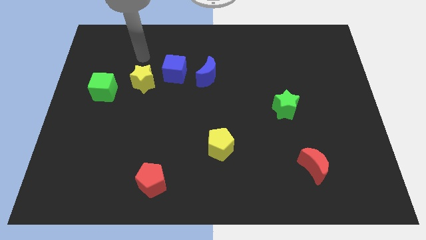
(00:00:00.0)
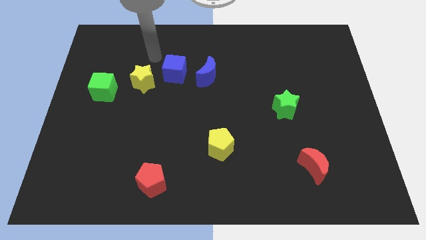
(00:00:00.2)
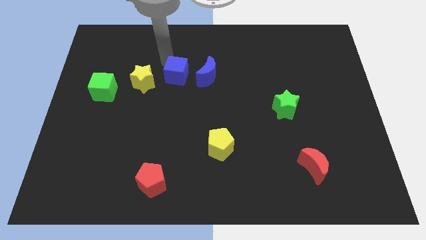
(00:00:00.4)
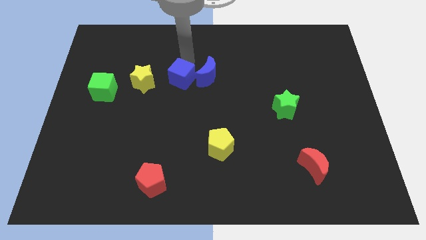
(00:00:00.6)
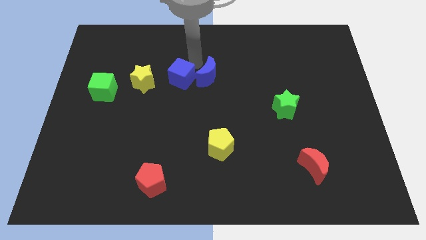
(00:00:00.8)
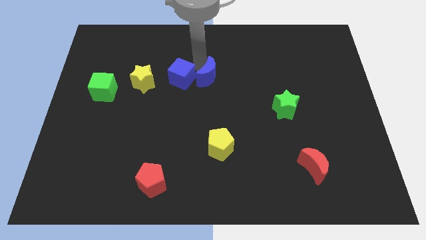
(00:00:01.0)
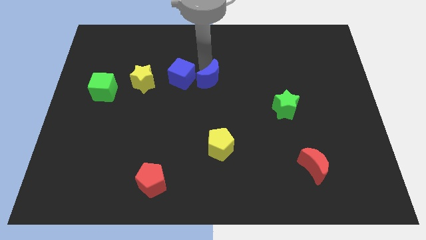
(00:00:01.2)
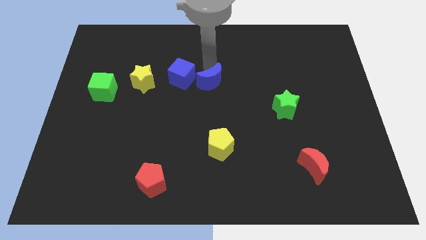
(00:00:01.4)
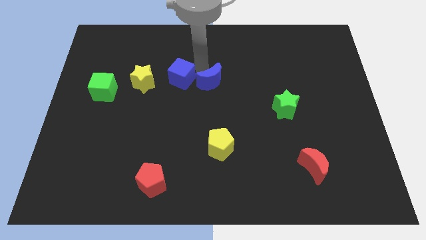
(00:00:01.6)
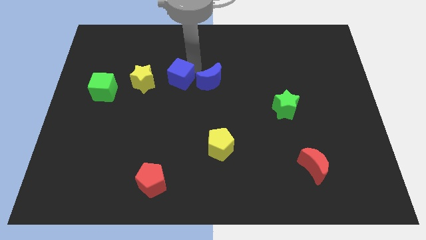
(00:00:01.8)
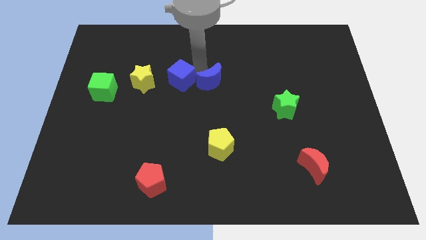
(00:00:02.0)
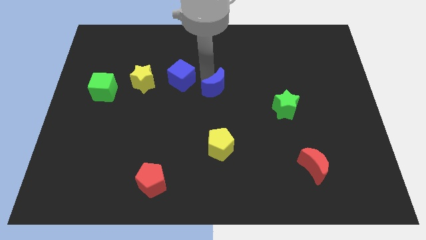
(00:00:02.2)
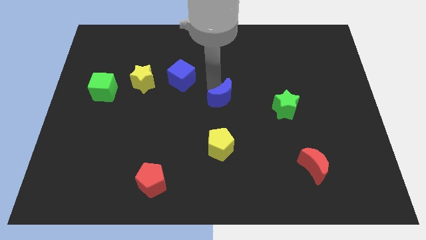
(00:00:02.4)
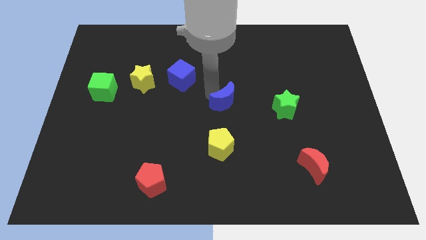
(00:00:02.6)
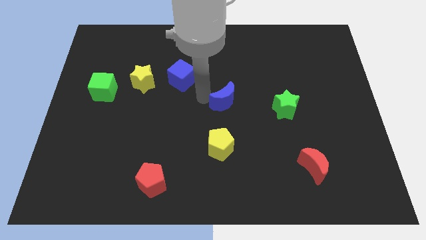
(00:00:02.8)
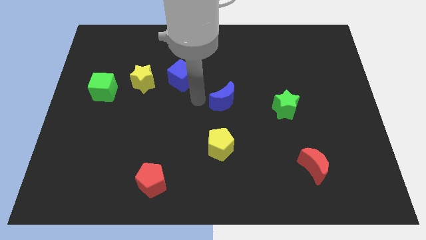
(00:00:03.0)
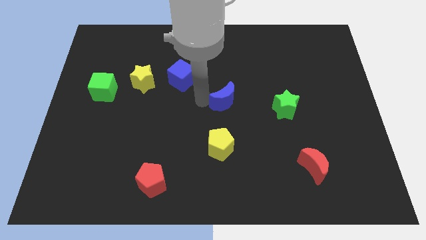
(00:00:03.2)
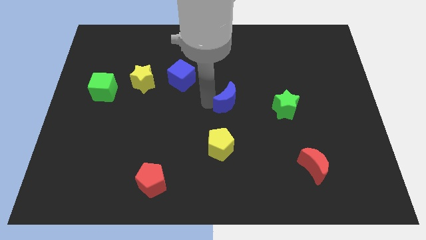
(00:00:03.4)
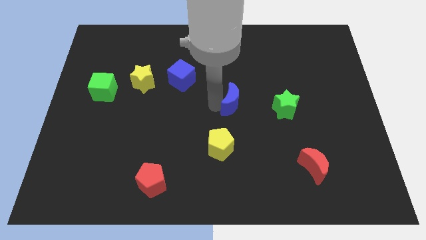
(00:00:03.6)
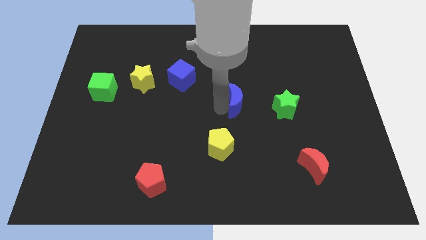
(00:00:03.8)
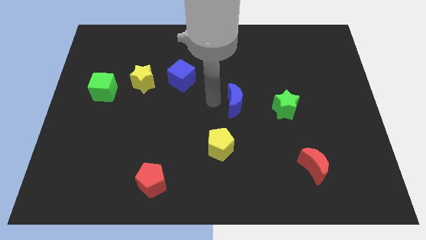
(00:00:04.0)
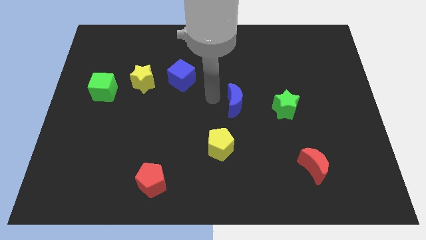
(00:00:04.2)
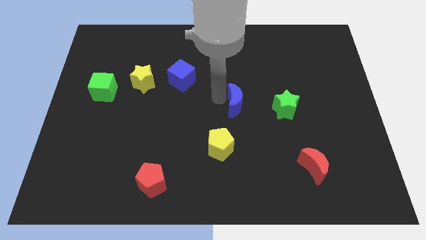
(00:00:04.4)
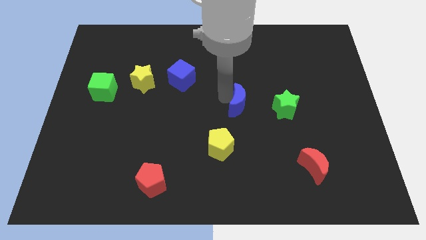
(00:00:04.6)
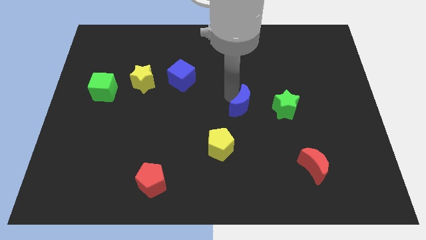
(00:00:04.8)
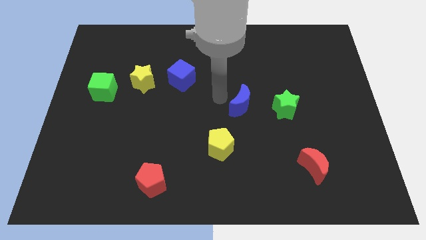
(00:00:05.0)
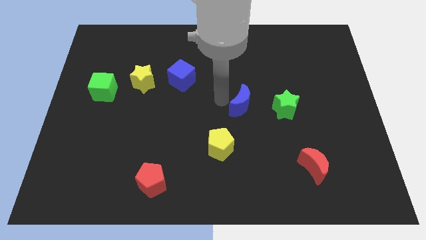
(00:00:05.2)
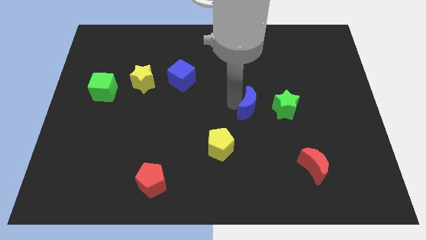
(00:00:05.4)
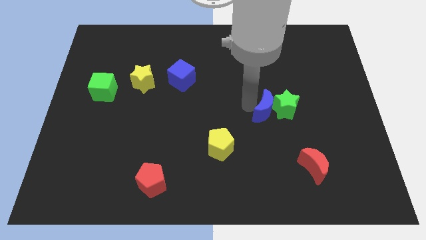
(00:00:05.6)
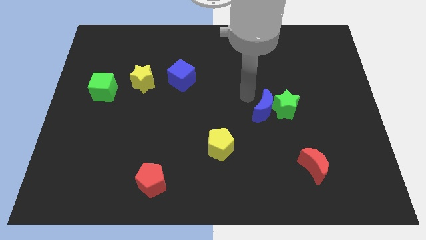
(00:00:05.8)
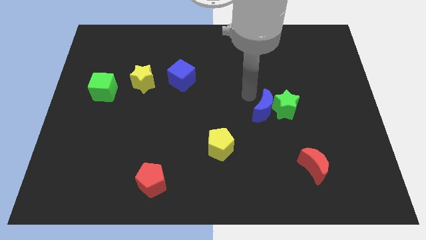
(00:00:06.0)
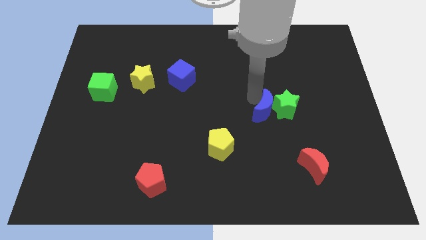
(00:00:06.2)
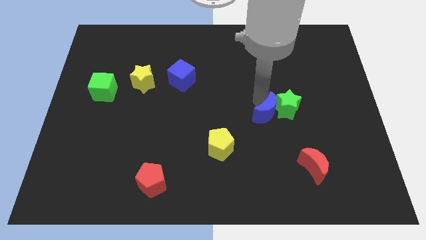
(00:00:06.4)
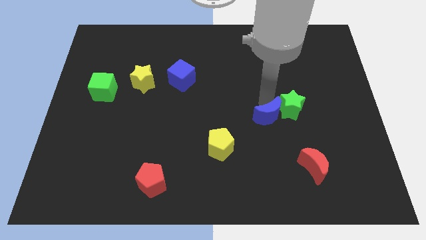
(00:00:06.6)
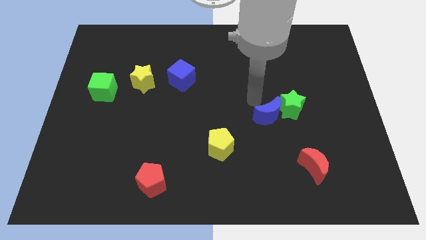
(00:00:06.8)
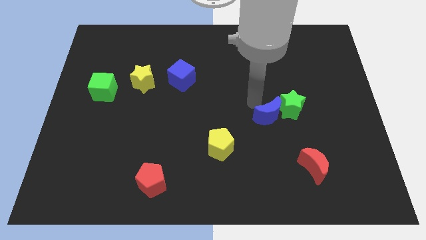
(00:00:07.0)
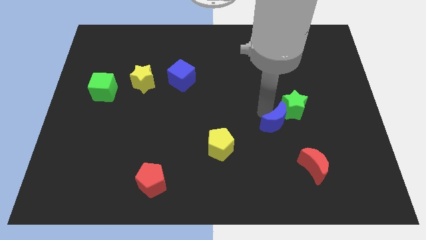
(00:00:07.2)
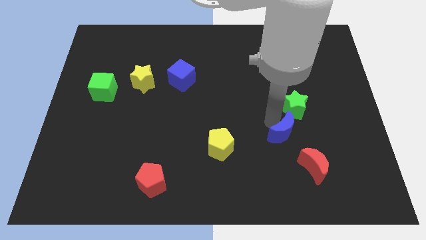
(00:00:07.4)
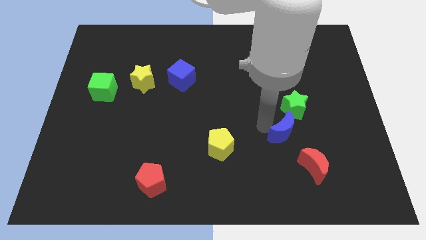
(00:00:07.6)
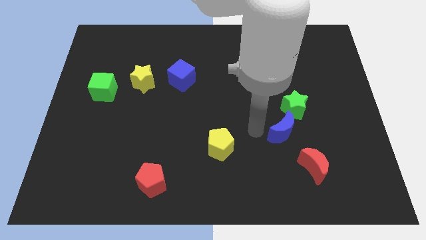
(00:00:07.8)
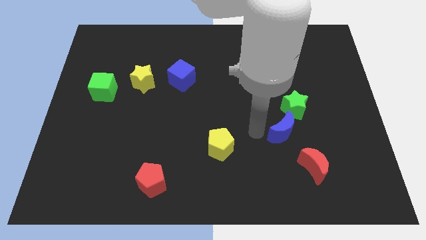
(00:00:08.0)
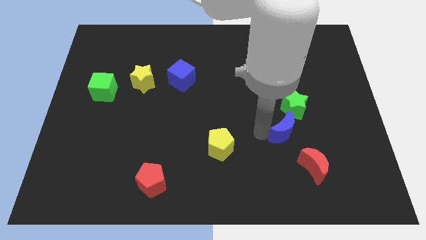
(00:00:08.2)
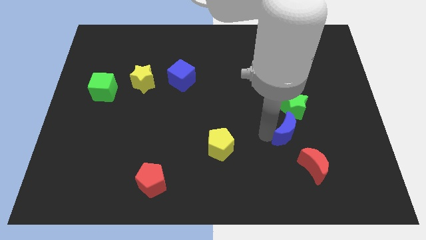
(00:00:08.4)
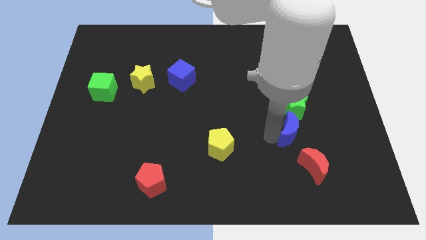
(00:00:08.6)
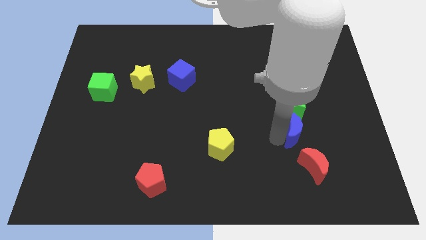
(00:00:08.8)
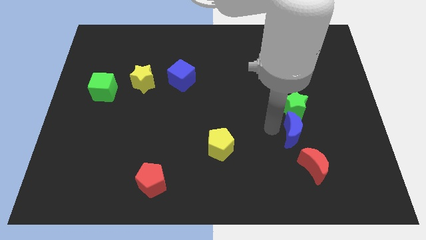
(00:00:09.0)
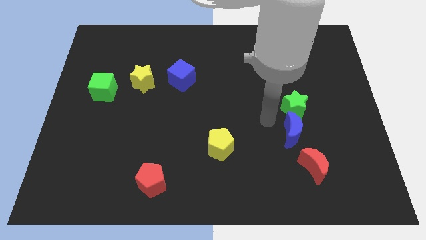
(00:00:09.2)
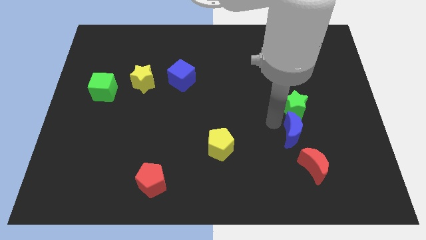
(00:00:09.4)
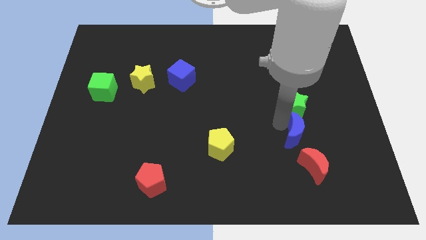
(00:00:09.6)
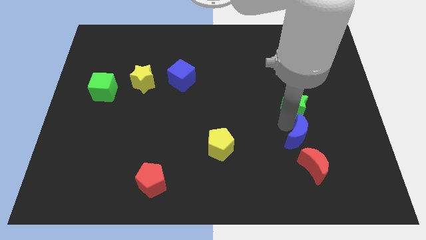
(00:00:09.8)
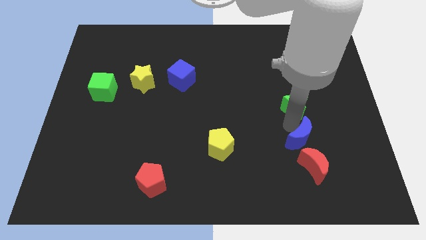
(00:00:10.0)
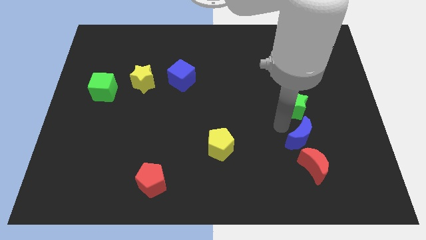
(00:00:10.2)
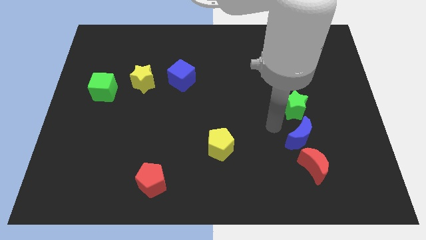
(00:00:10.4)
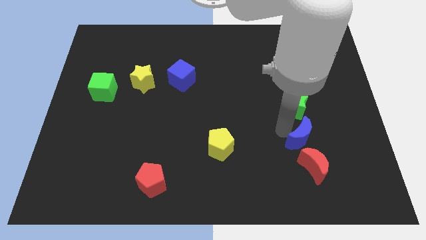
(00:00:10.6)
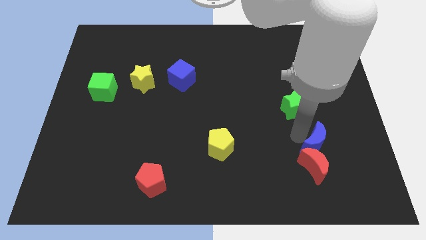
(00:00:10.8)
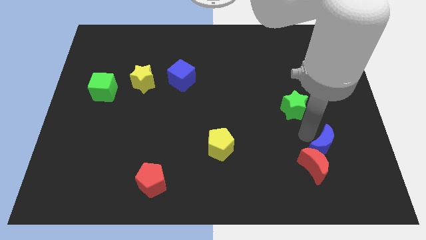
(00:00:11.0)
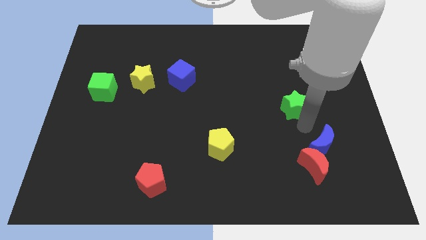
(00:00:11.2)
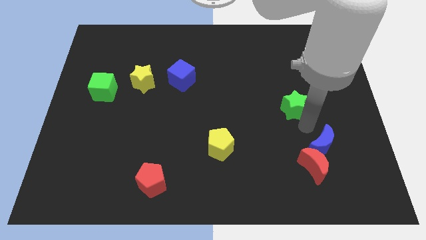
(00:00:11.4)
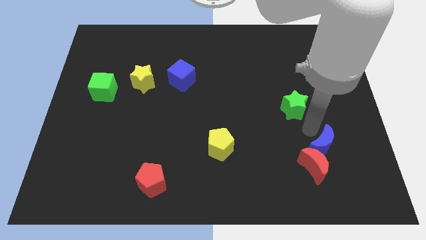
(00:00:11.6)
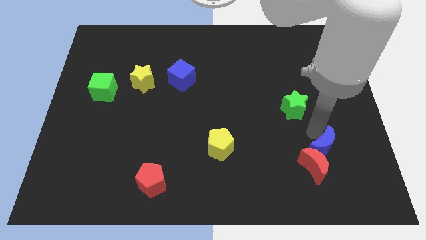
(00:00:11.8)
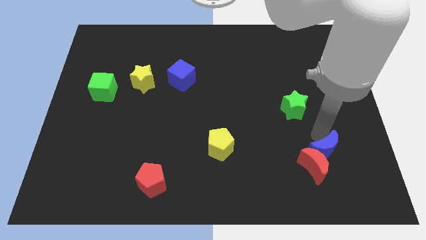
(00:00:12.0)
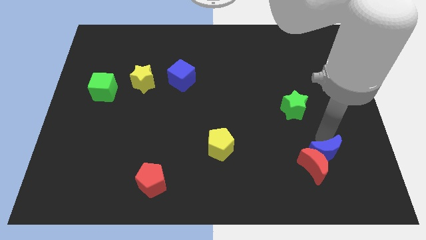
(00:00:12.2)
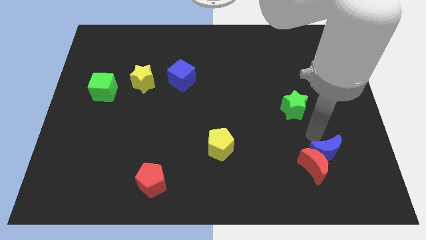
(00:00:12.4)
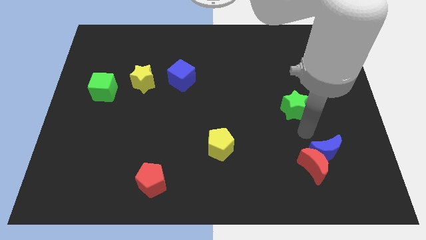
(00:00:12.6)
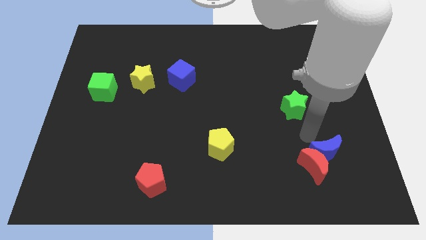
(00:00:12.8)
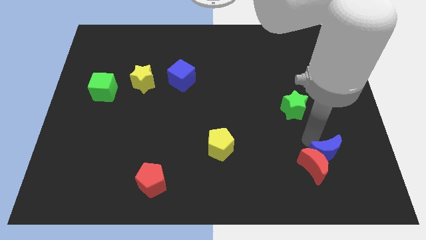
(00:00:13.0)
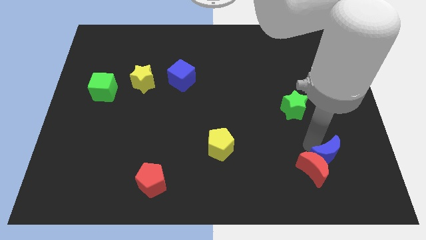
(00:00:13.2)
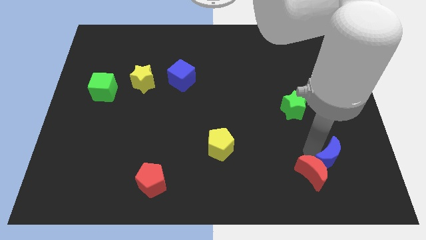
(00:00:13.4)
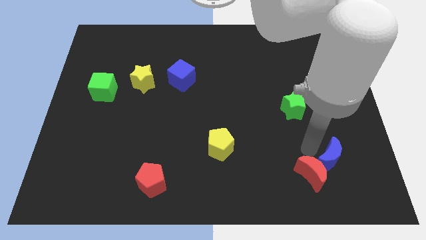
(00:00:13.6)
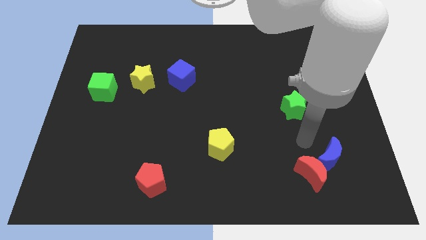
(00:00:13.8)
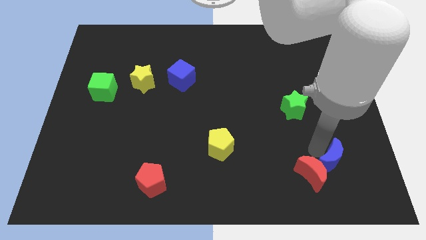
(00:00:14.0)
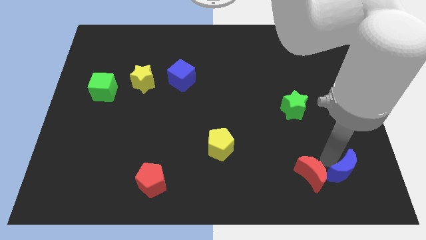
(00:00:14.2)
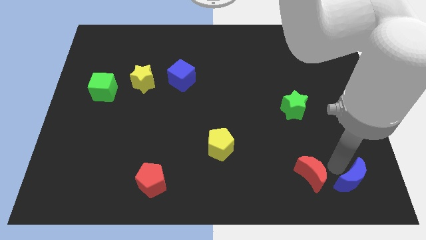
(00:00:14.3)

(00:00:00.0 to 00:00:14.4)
slide the blue moon to the bottom right
